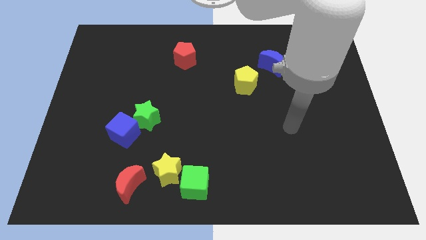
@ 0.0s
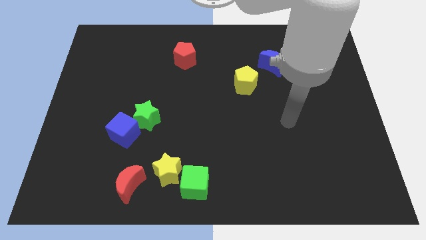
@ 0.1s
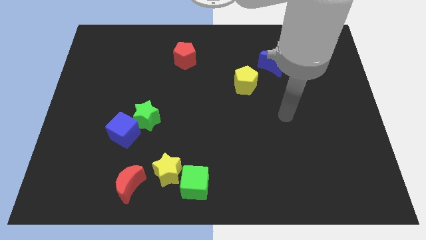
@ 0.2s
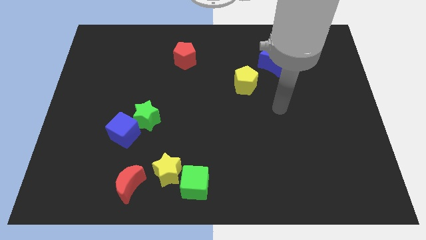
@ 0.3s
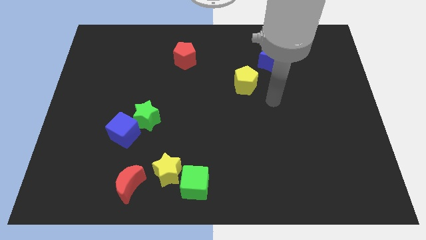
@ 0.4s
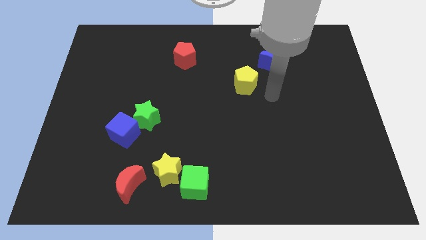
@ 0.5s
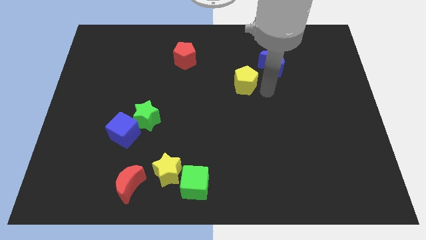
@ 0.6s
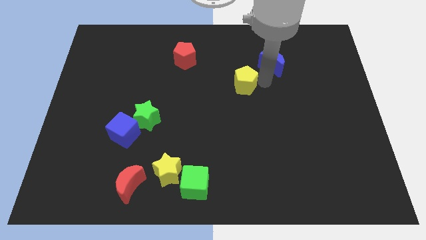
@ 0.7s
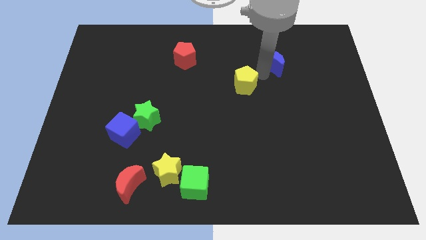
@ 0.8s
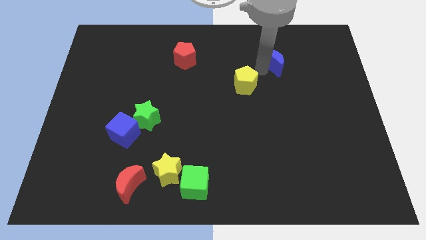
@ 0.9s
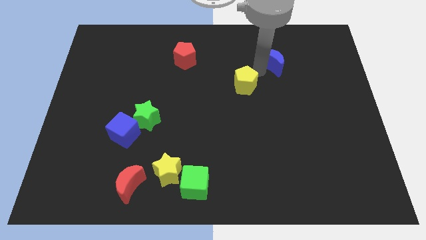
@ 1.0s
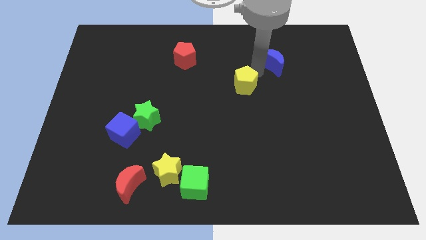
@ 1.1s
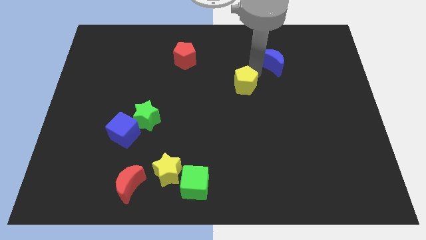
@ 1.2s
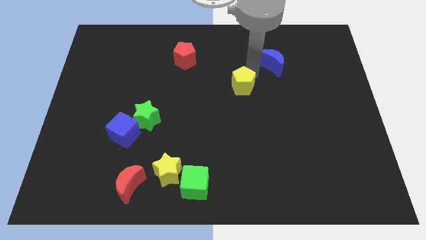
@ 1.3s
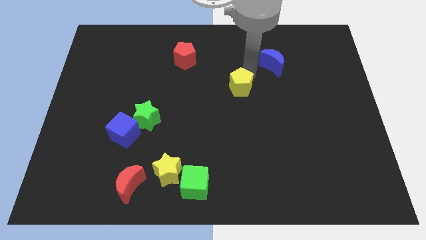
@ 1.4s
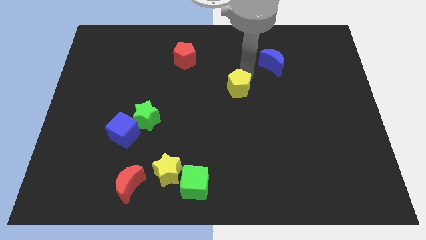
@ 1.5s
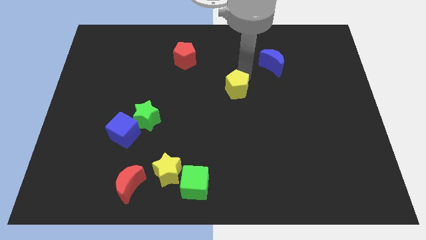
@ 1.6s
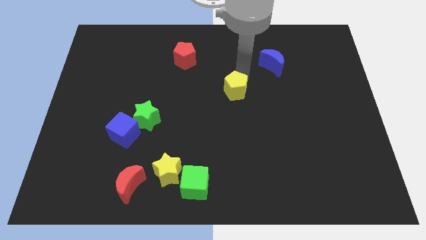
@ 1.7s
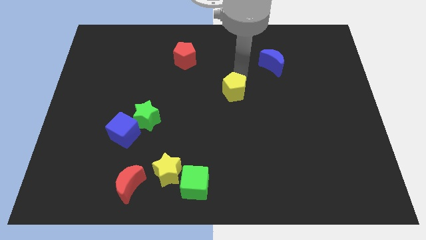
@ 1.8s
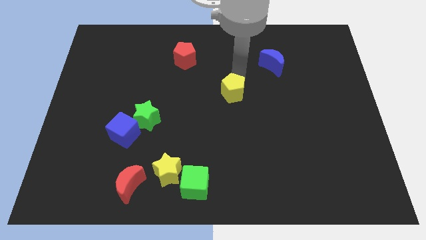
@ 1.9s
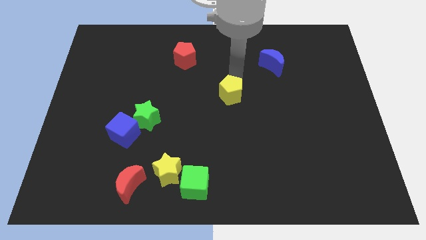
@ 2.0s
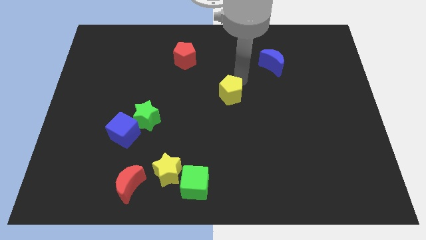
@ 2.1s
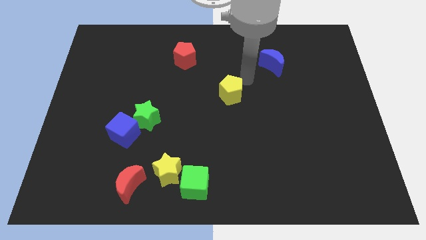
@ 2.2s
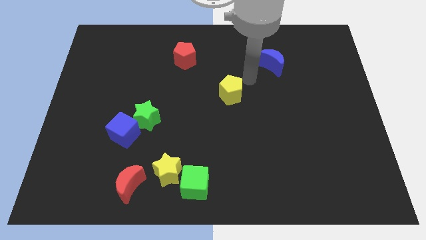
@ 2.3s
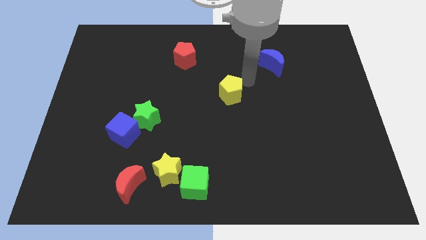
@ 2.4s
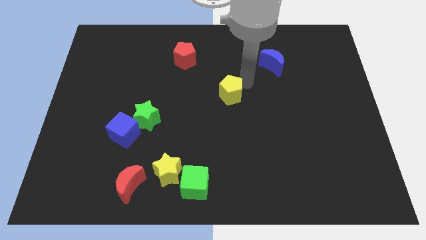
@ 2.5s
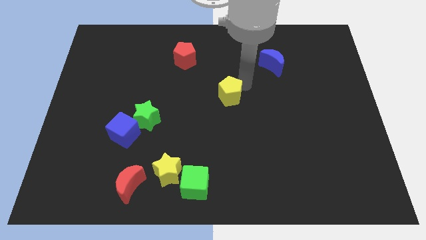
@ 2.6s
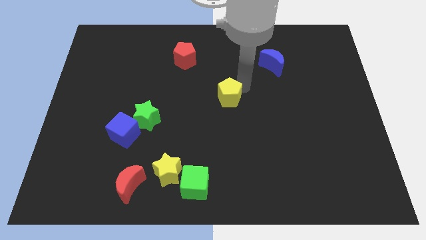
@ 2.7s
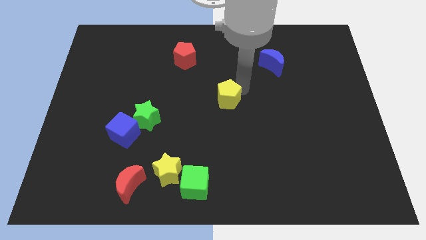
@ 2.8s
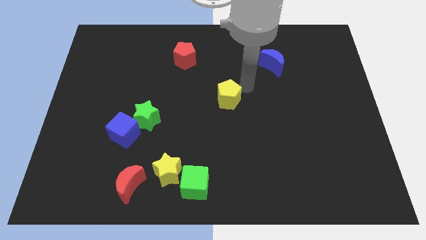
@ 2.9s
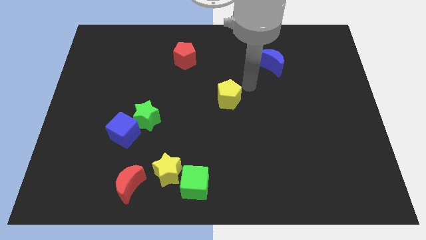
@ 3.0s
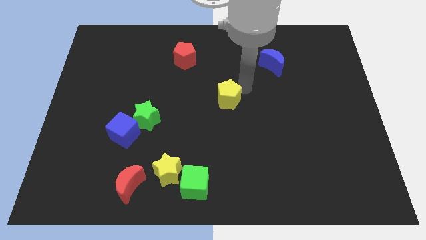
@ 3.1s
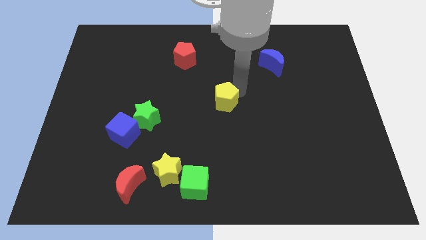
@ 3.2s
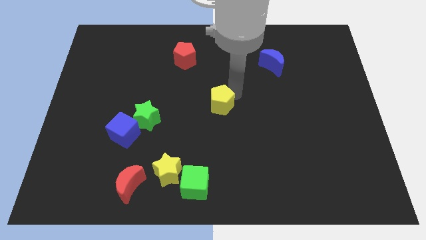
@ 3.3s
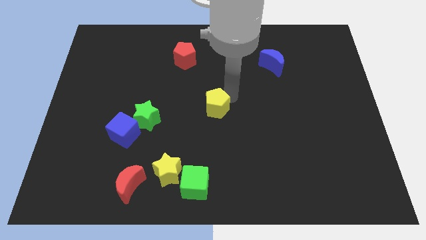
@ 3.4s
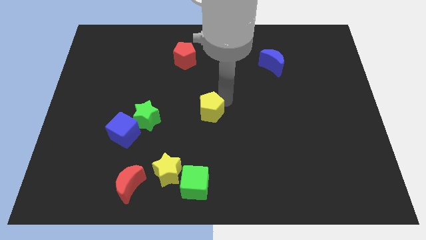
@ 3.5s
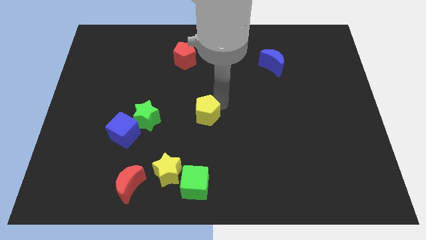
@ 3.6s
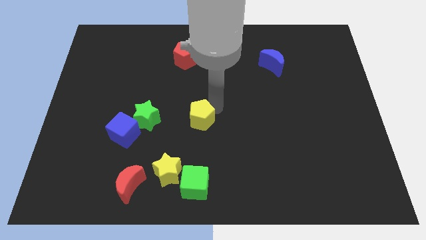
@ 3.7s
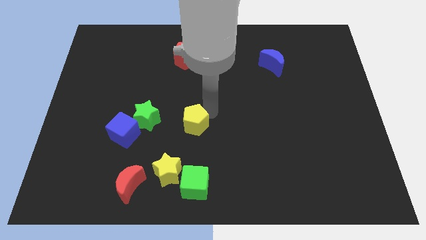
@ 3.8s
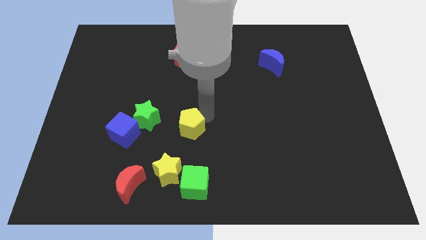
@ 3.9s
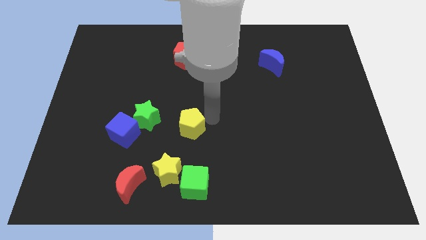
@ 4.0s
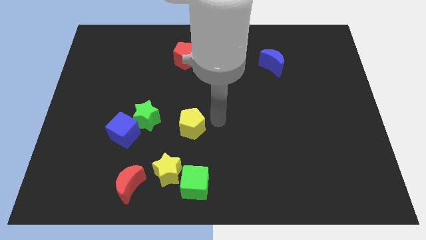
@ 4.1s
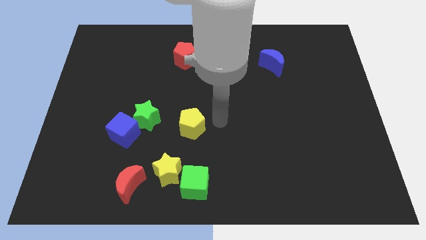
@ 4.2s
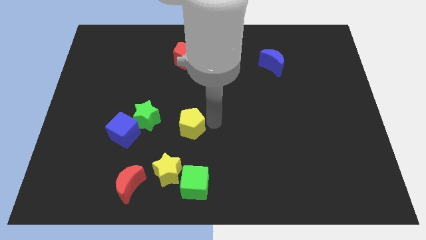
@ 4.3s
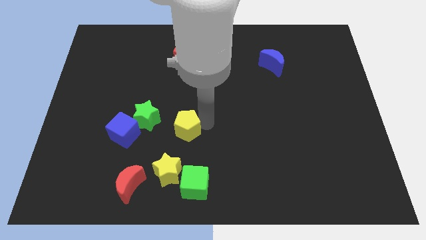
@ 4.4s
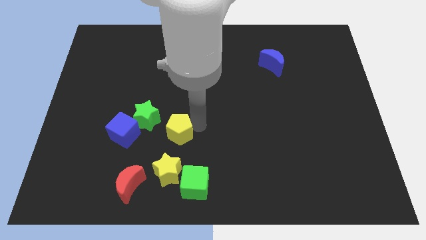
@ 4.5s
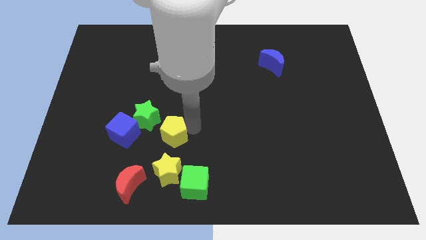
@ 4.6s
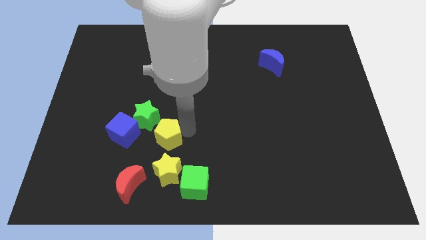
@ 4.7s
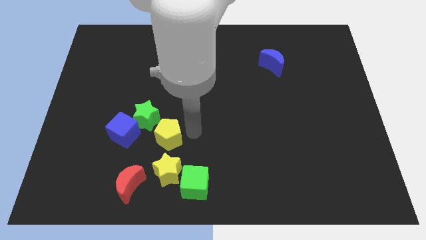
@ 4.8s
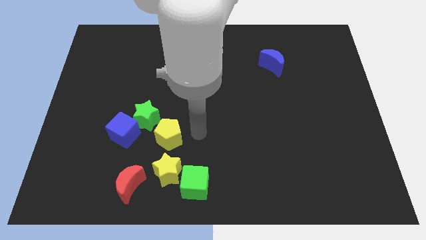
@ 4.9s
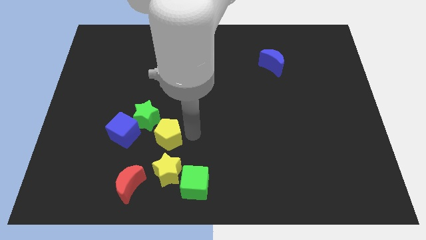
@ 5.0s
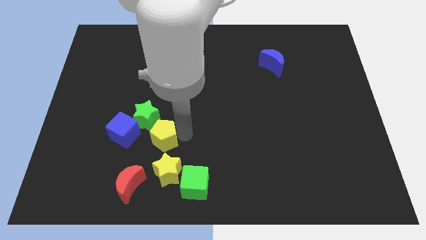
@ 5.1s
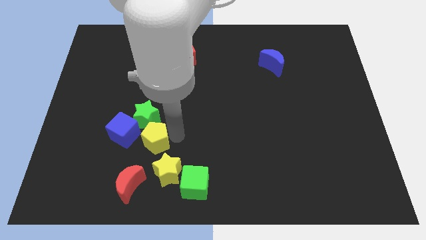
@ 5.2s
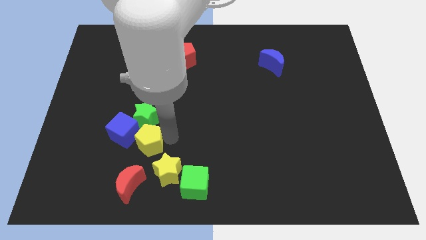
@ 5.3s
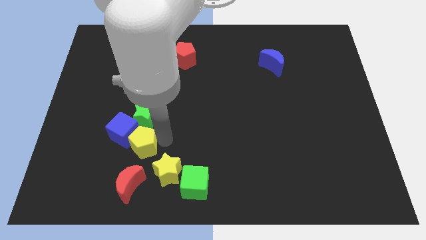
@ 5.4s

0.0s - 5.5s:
slide the yellow pentagon towards the blue cube

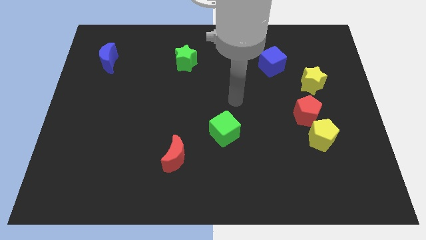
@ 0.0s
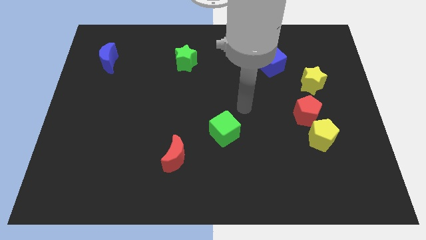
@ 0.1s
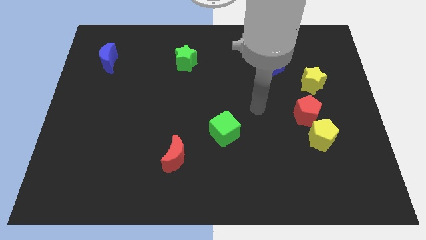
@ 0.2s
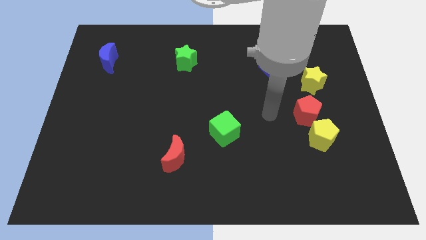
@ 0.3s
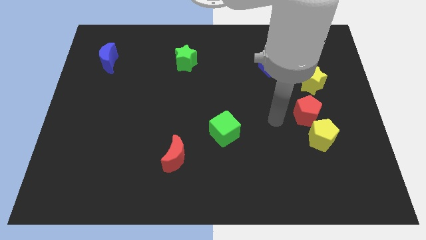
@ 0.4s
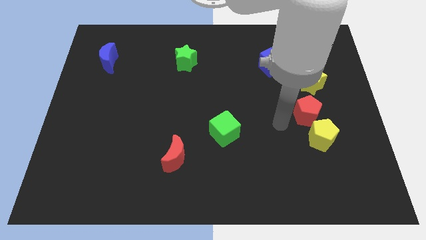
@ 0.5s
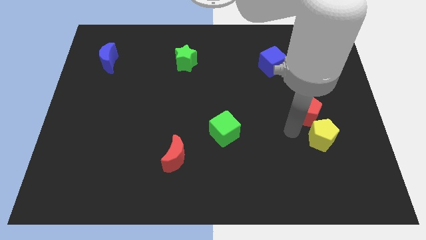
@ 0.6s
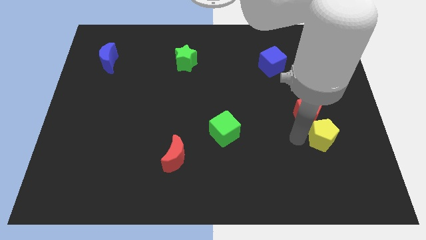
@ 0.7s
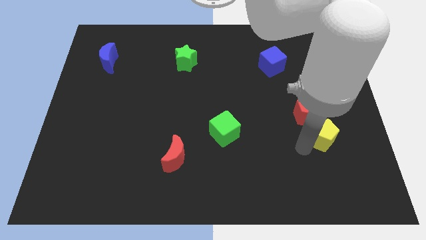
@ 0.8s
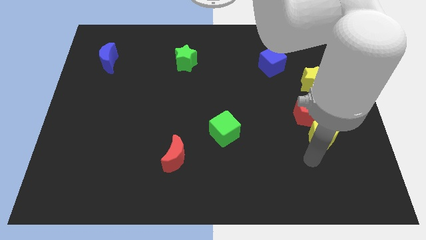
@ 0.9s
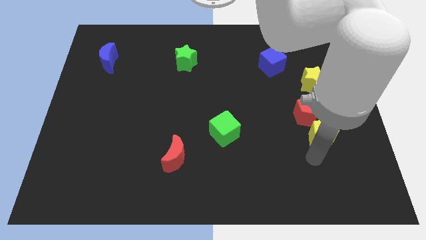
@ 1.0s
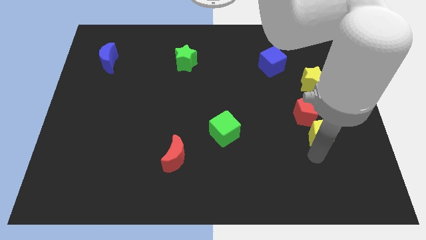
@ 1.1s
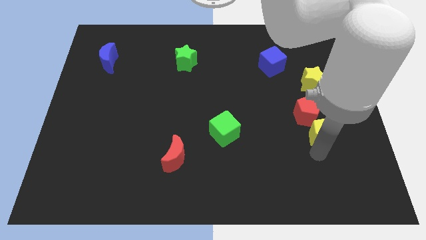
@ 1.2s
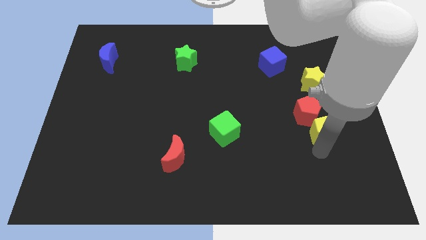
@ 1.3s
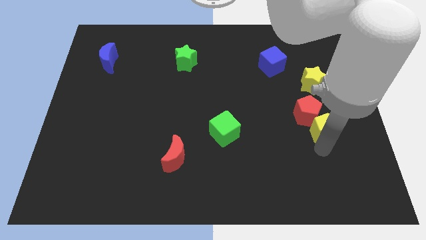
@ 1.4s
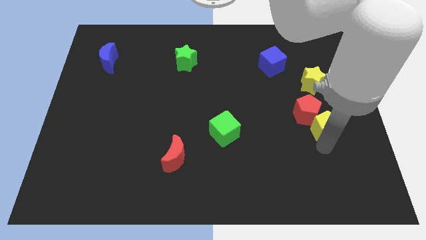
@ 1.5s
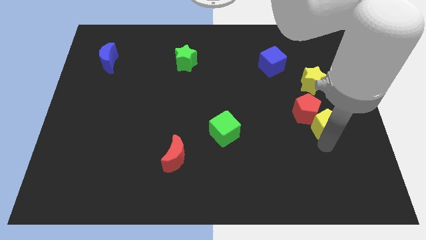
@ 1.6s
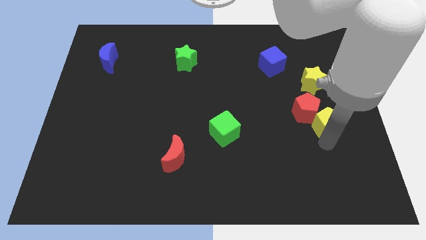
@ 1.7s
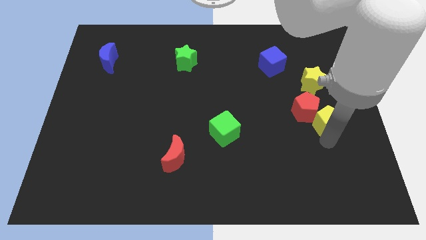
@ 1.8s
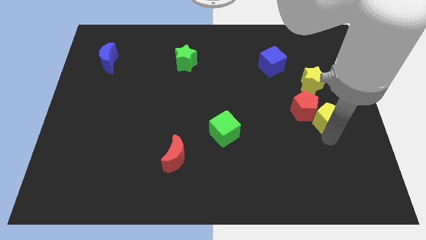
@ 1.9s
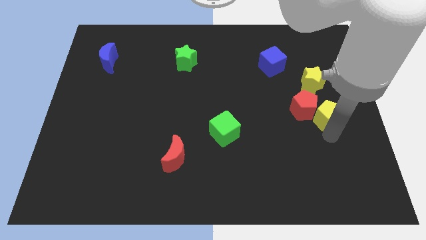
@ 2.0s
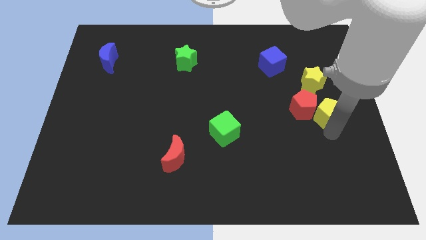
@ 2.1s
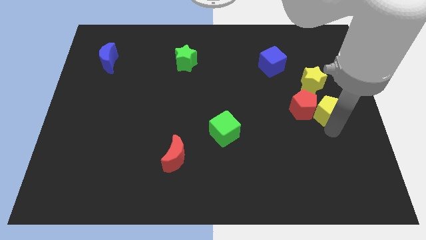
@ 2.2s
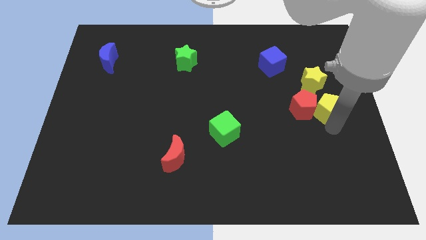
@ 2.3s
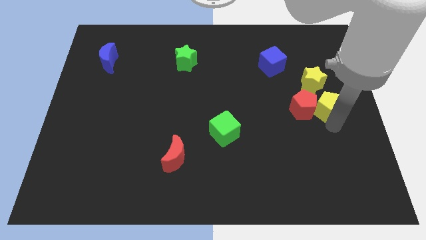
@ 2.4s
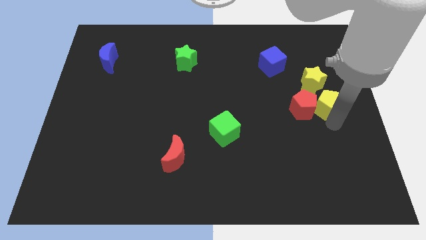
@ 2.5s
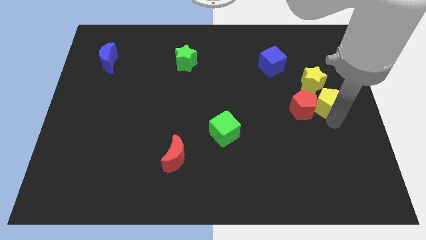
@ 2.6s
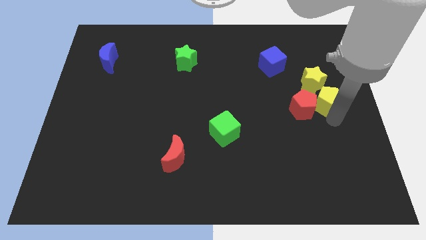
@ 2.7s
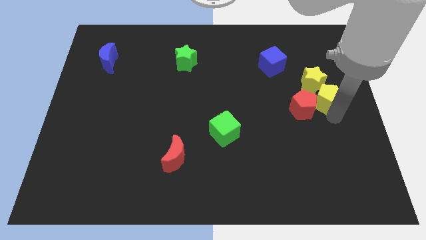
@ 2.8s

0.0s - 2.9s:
slide the yellow pentagon to the yellow star
